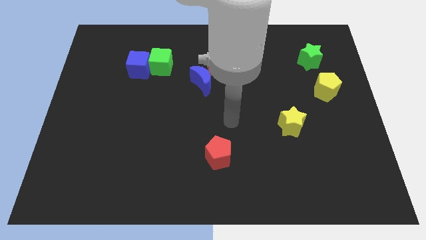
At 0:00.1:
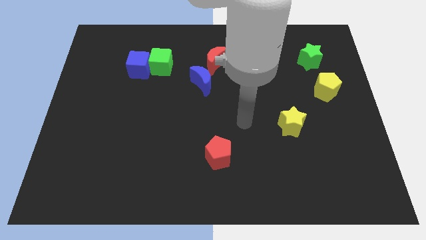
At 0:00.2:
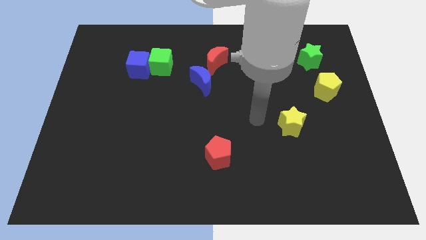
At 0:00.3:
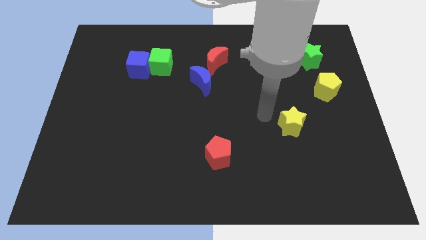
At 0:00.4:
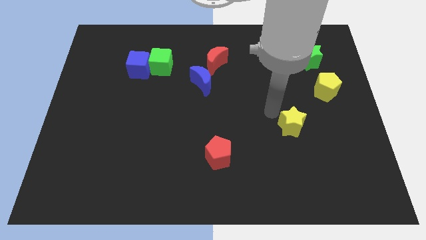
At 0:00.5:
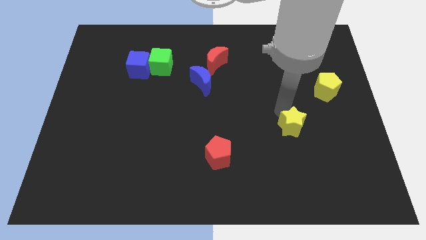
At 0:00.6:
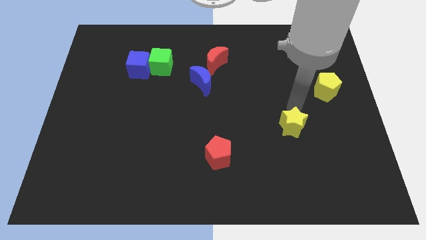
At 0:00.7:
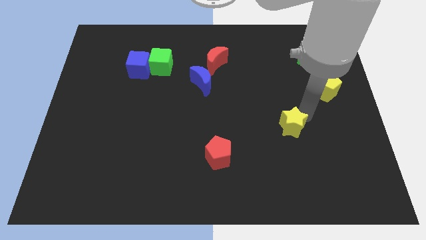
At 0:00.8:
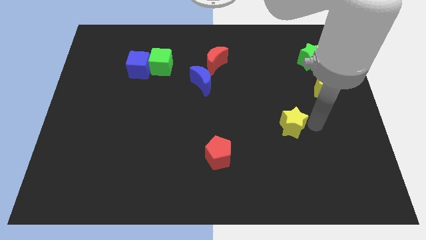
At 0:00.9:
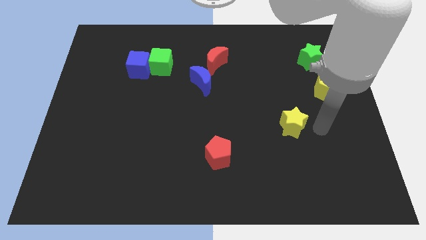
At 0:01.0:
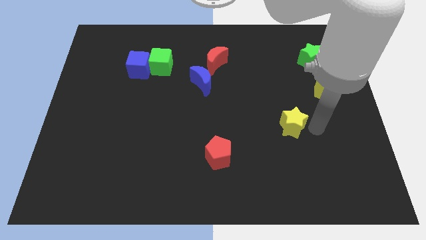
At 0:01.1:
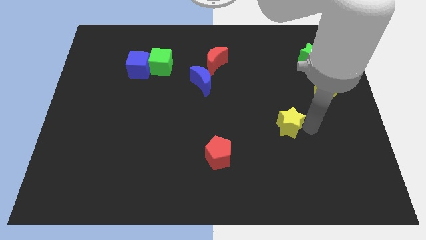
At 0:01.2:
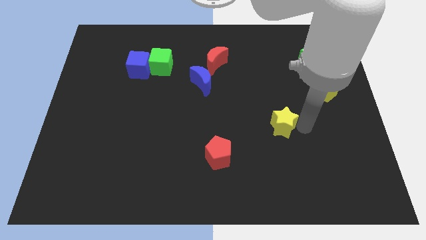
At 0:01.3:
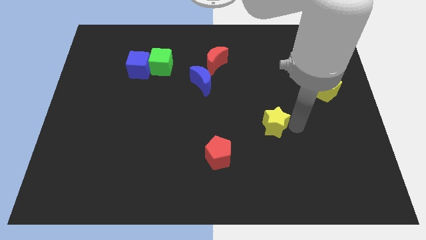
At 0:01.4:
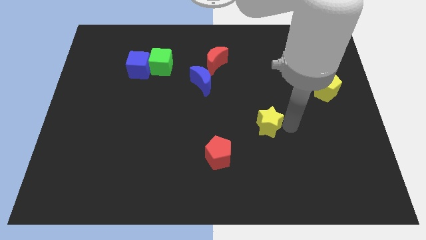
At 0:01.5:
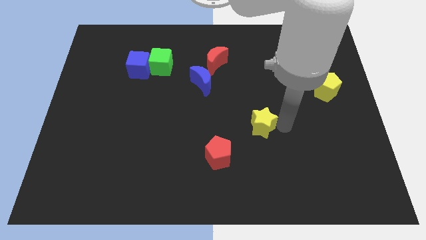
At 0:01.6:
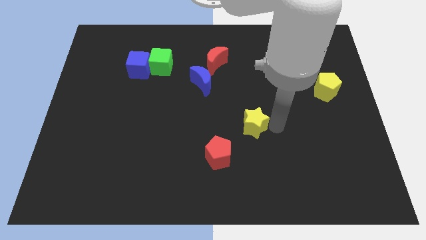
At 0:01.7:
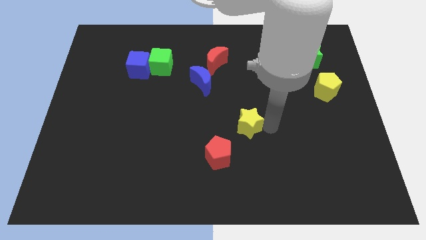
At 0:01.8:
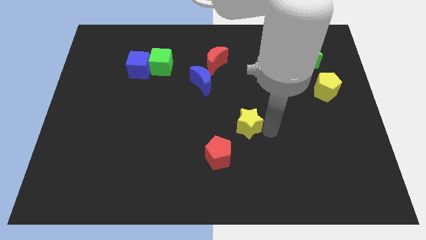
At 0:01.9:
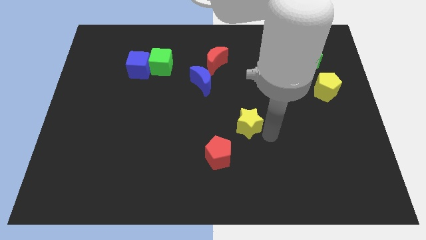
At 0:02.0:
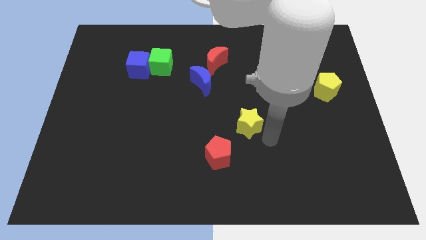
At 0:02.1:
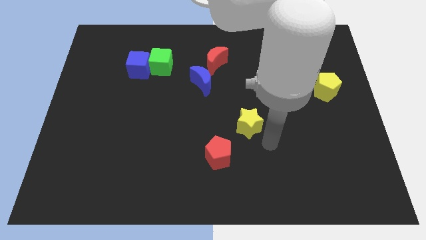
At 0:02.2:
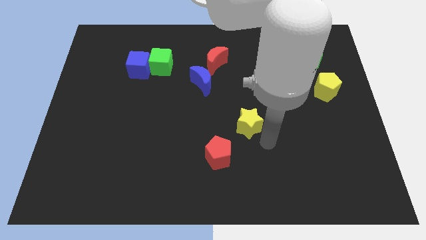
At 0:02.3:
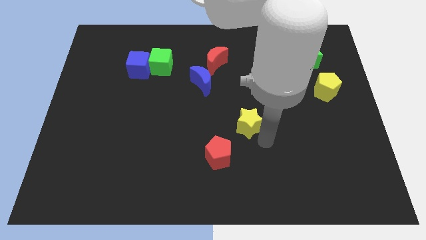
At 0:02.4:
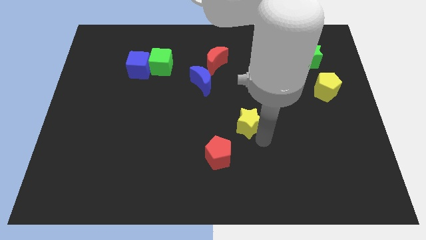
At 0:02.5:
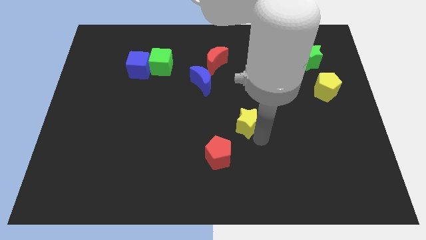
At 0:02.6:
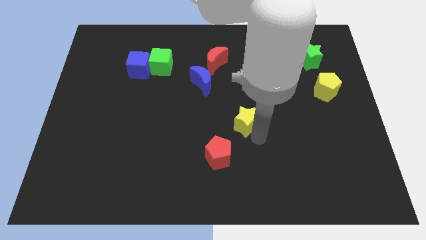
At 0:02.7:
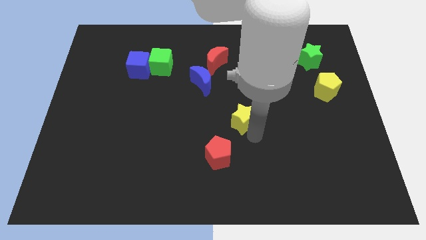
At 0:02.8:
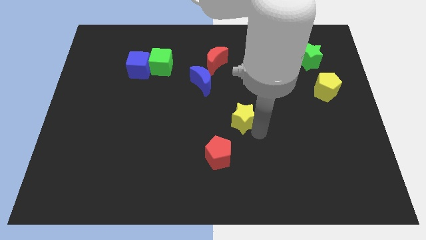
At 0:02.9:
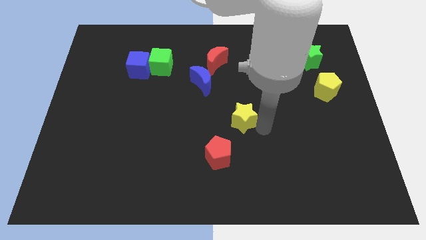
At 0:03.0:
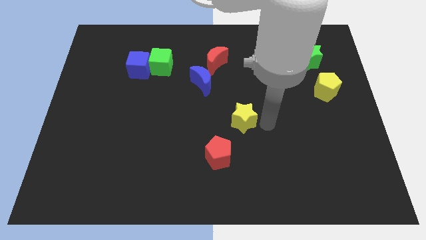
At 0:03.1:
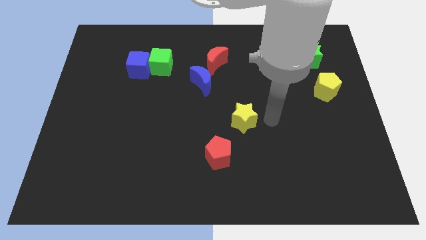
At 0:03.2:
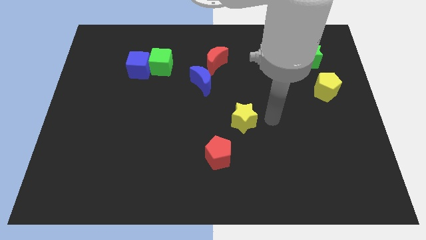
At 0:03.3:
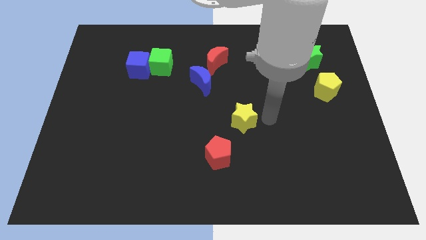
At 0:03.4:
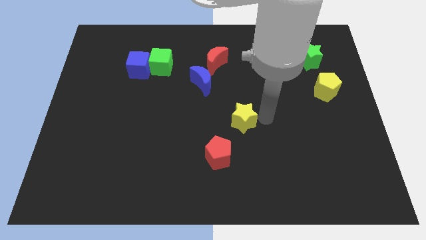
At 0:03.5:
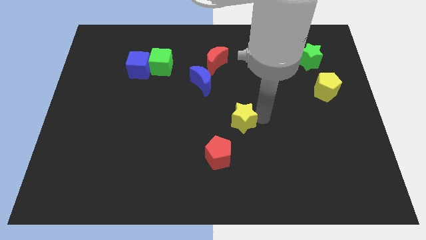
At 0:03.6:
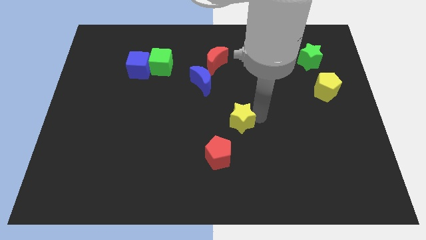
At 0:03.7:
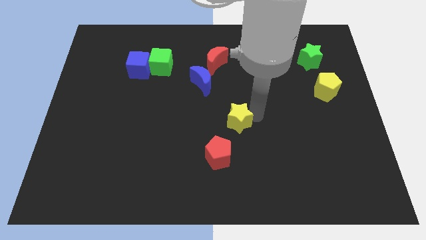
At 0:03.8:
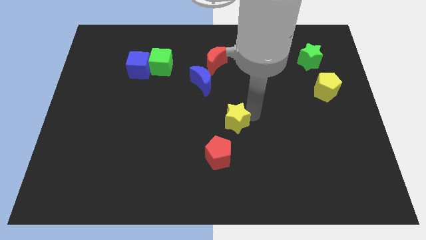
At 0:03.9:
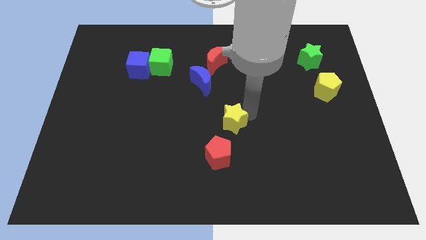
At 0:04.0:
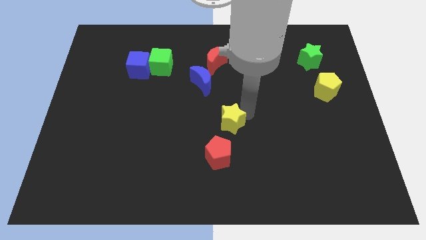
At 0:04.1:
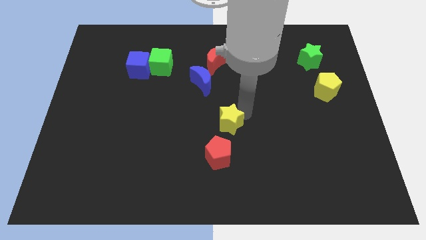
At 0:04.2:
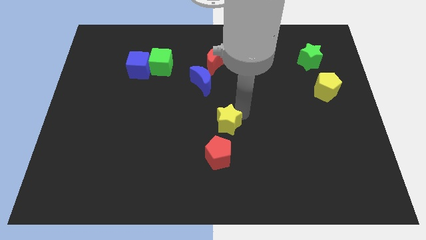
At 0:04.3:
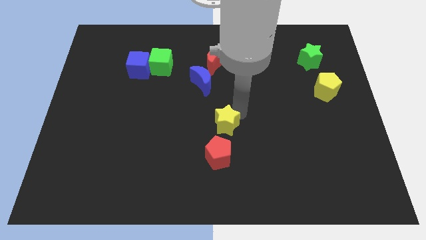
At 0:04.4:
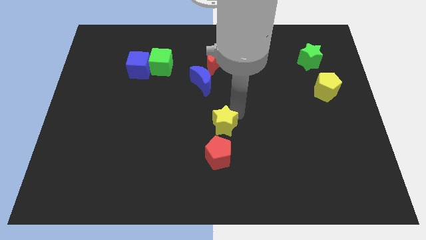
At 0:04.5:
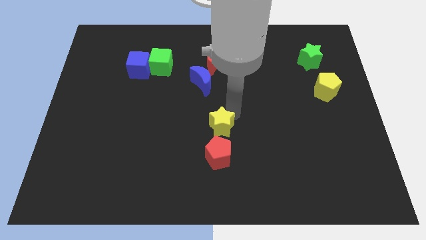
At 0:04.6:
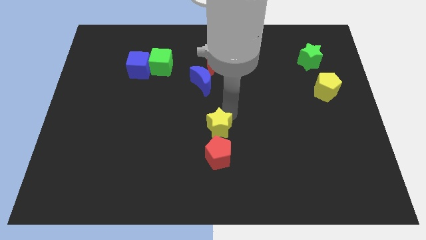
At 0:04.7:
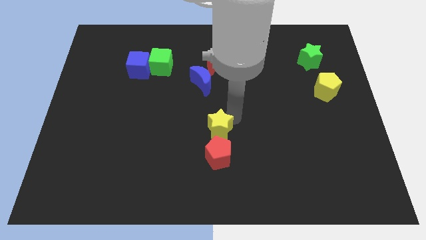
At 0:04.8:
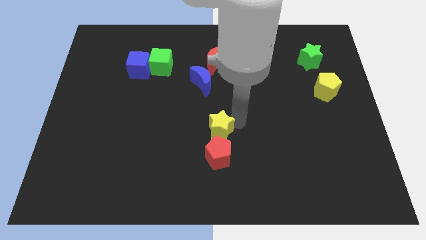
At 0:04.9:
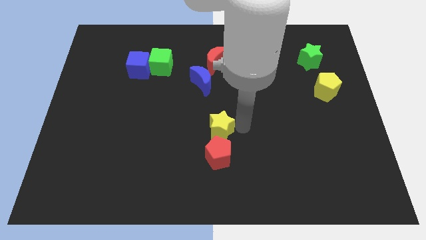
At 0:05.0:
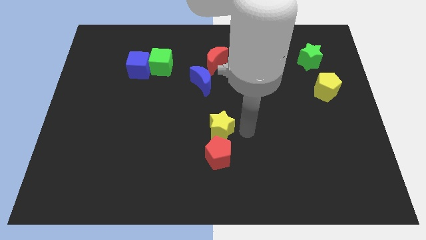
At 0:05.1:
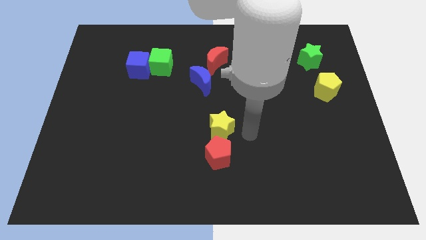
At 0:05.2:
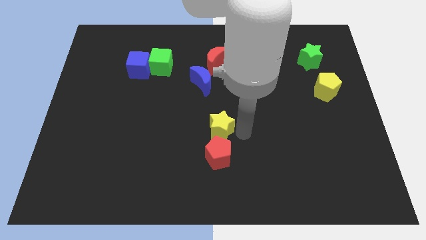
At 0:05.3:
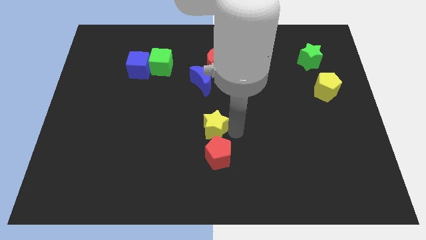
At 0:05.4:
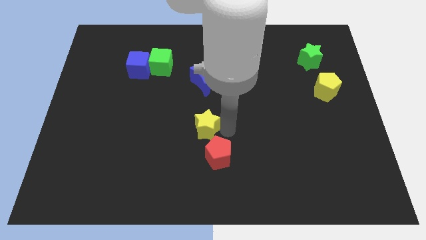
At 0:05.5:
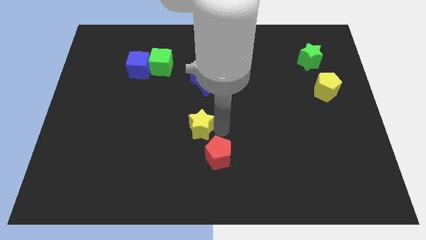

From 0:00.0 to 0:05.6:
slide the yellow star left

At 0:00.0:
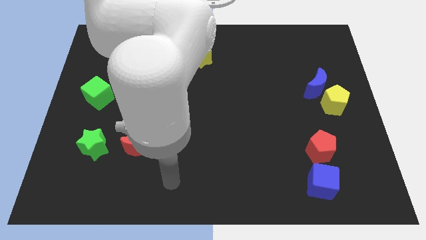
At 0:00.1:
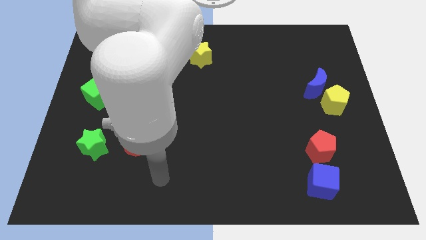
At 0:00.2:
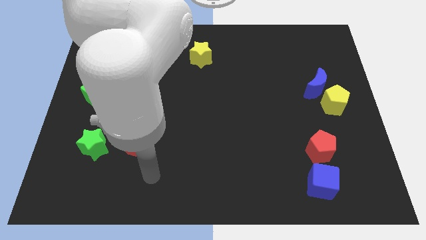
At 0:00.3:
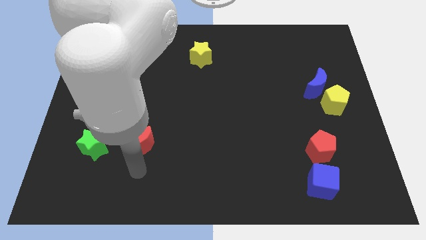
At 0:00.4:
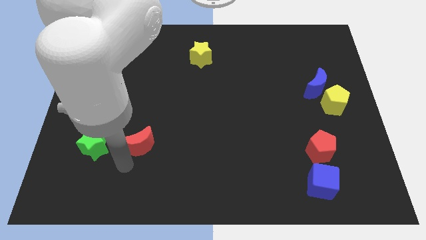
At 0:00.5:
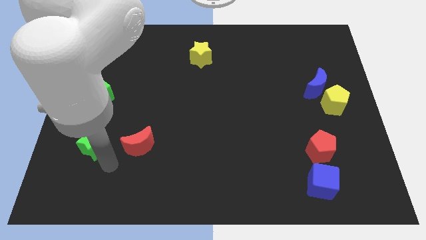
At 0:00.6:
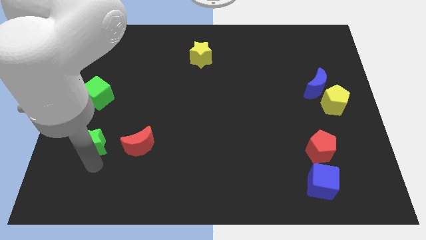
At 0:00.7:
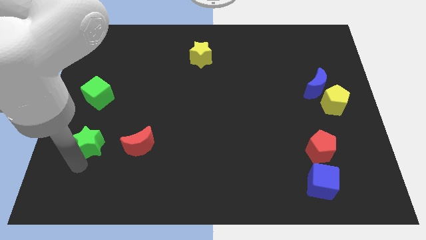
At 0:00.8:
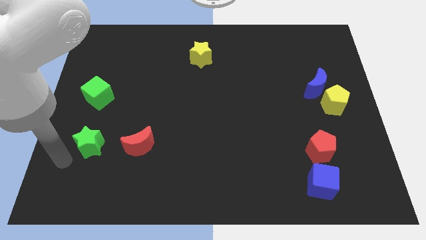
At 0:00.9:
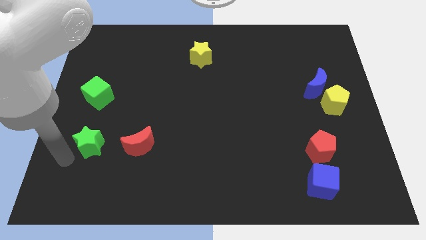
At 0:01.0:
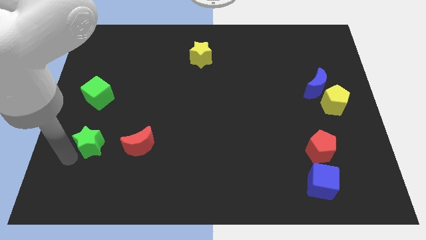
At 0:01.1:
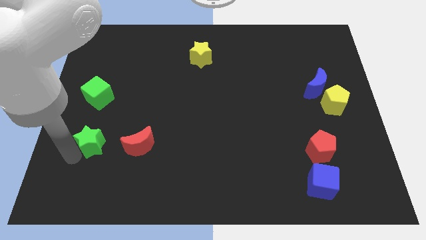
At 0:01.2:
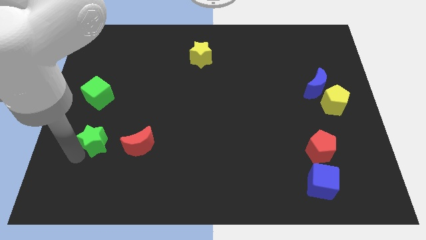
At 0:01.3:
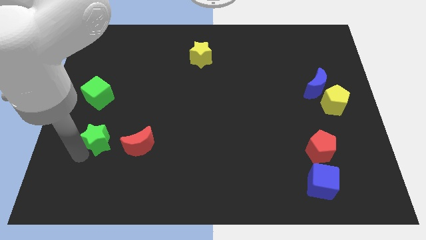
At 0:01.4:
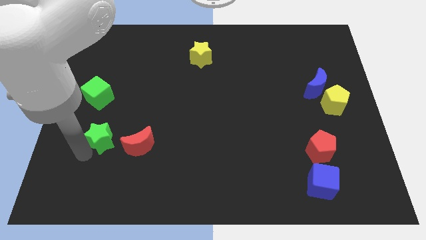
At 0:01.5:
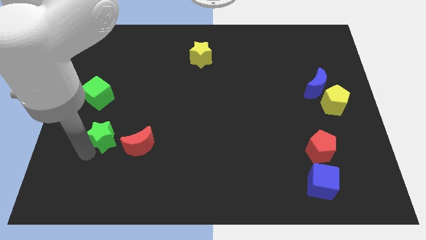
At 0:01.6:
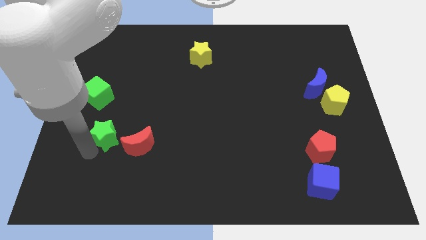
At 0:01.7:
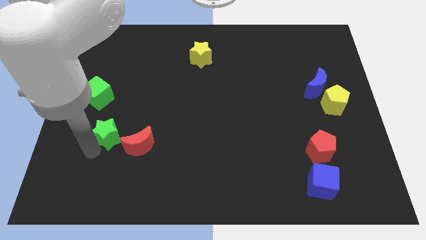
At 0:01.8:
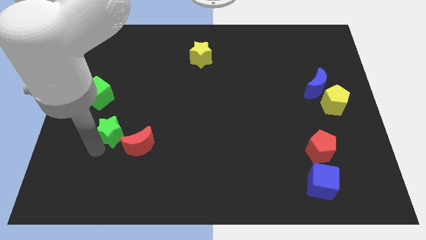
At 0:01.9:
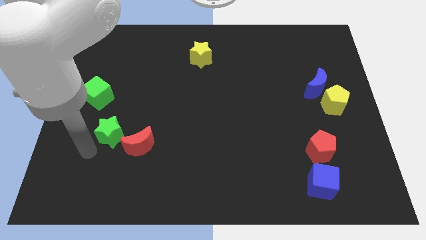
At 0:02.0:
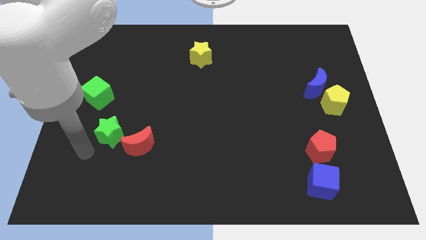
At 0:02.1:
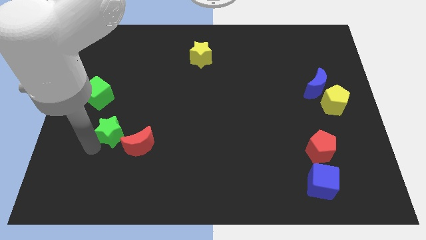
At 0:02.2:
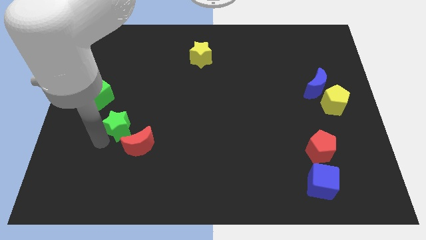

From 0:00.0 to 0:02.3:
slightly push the green star diagonally upwards and right
